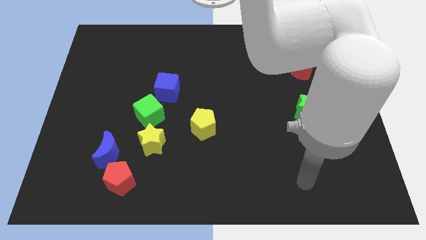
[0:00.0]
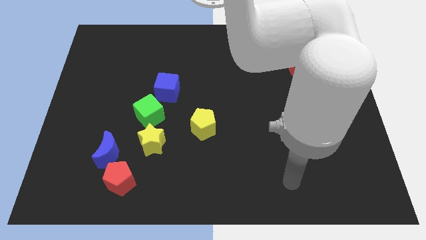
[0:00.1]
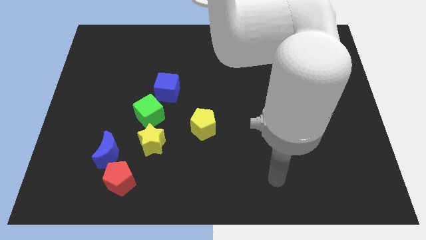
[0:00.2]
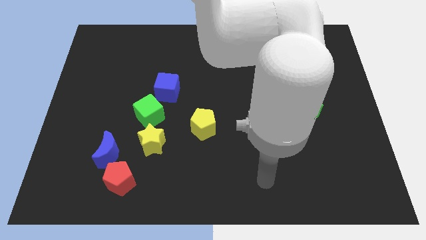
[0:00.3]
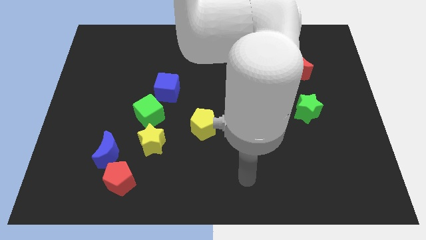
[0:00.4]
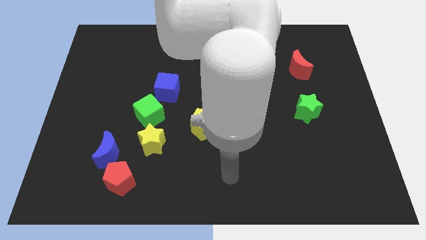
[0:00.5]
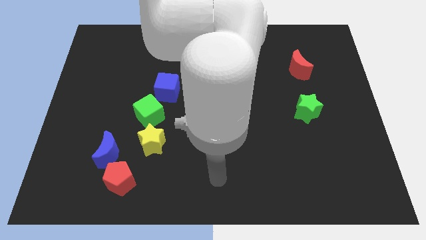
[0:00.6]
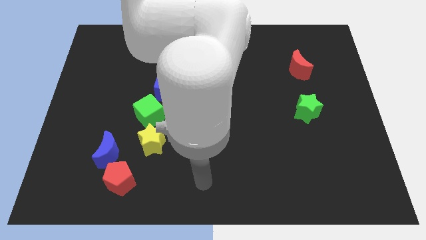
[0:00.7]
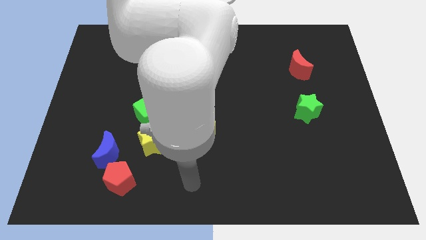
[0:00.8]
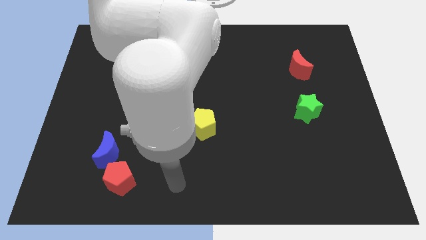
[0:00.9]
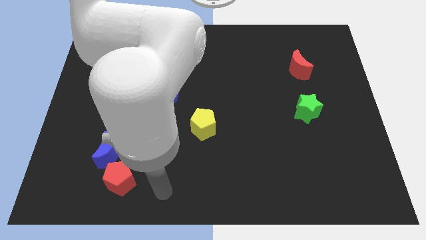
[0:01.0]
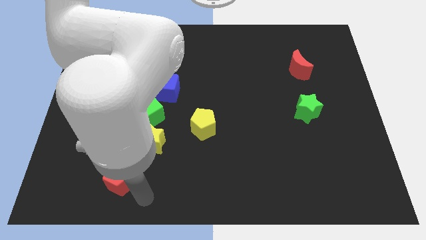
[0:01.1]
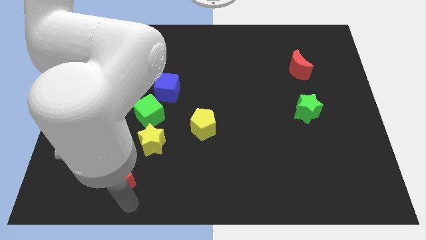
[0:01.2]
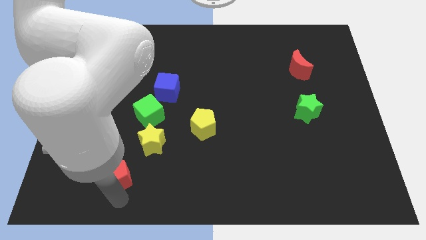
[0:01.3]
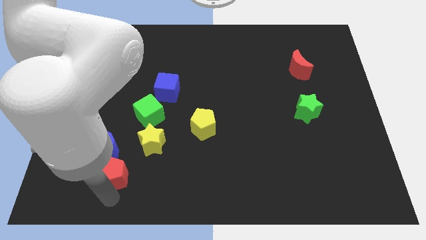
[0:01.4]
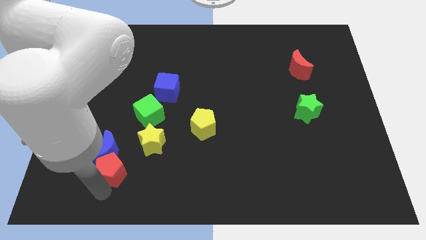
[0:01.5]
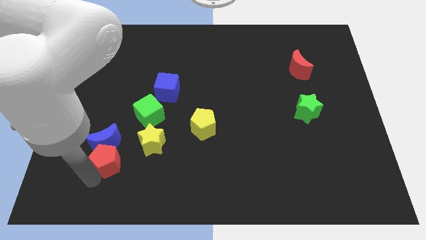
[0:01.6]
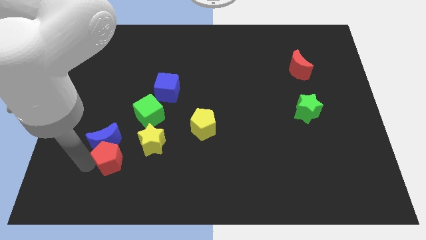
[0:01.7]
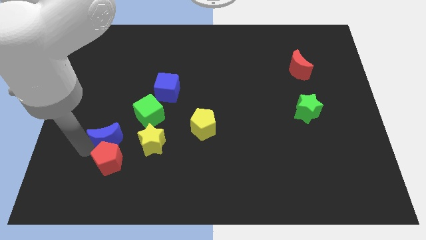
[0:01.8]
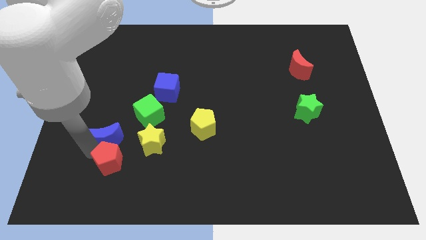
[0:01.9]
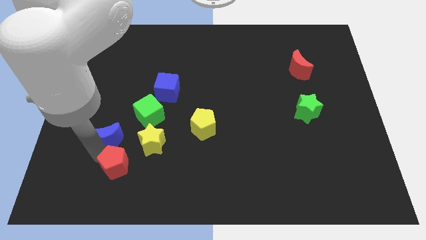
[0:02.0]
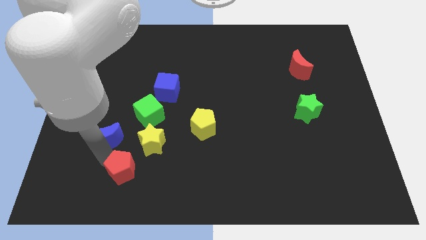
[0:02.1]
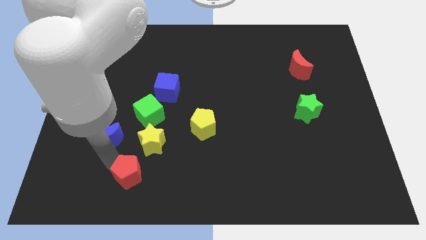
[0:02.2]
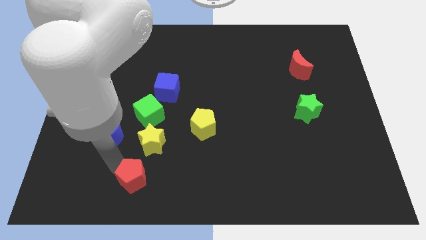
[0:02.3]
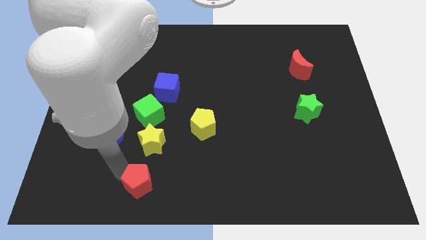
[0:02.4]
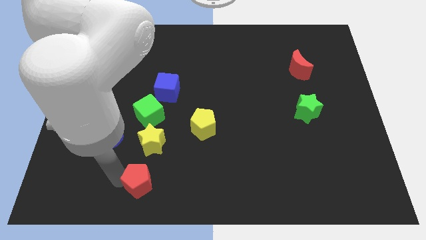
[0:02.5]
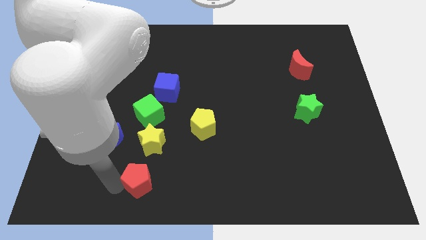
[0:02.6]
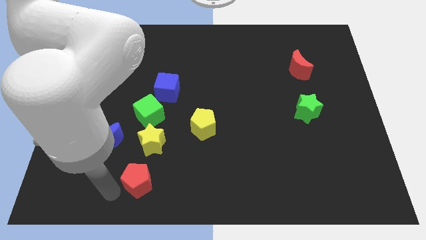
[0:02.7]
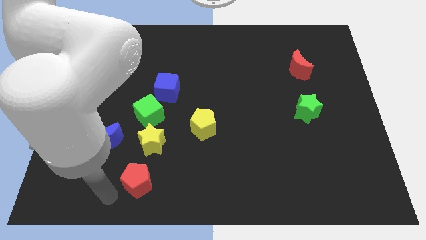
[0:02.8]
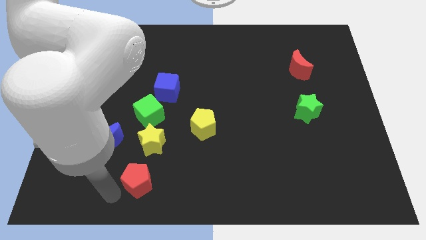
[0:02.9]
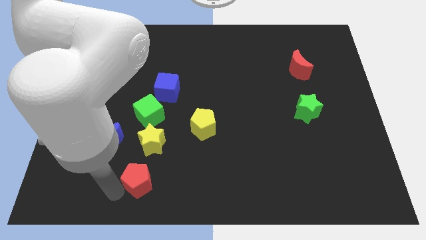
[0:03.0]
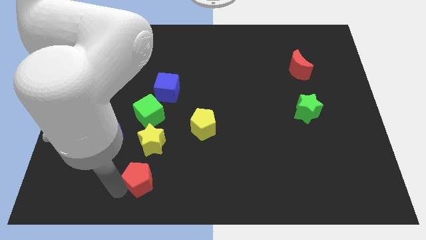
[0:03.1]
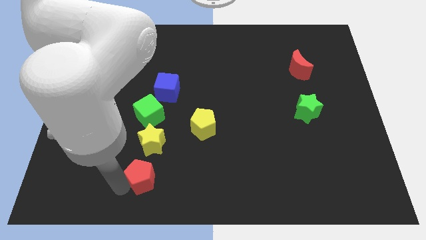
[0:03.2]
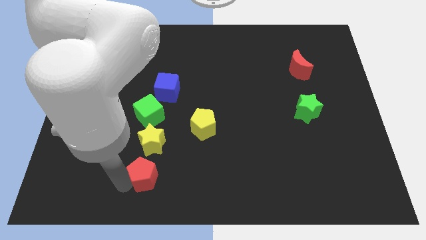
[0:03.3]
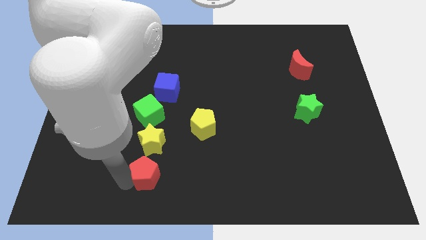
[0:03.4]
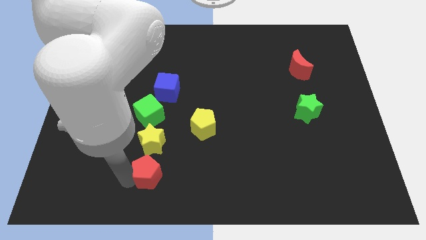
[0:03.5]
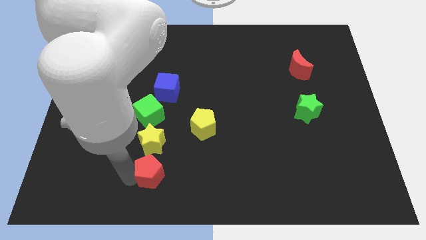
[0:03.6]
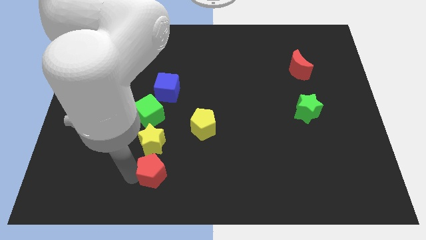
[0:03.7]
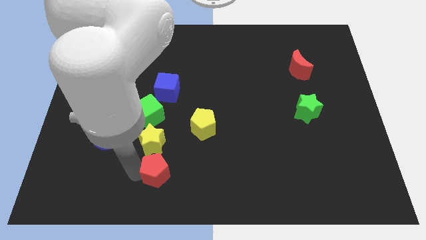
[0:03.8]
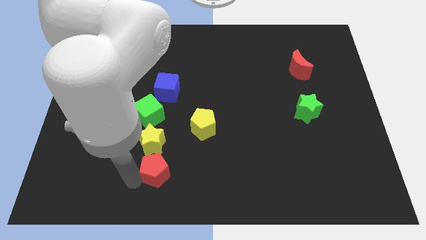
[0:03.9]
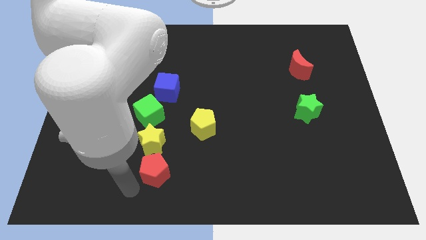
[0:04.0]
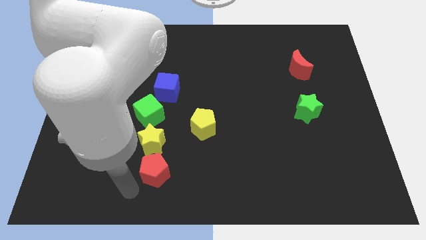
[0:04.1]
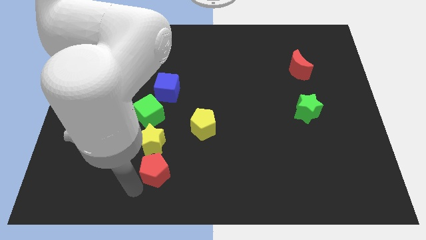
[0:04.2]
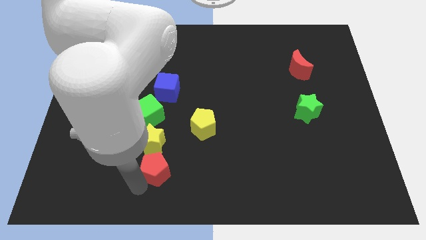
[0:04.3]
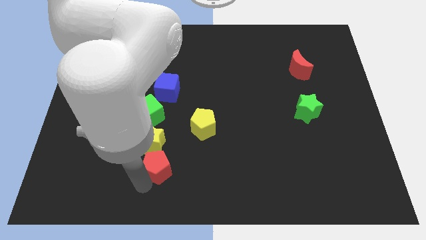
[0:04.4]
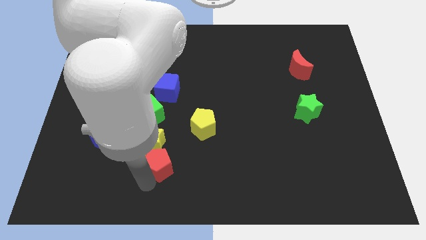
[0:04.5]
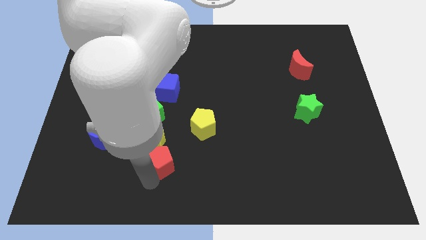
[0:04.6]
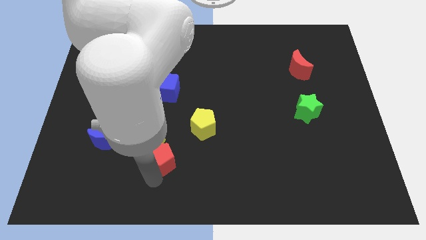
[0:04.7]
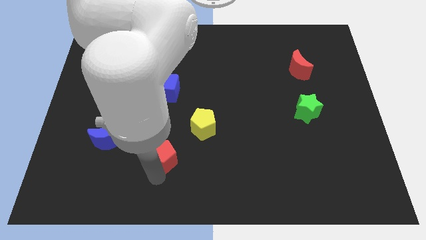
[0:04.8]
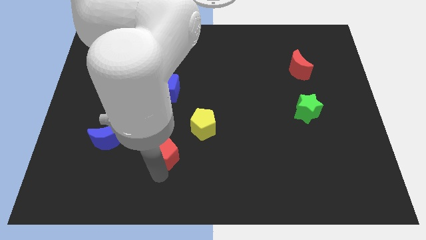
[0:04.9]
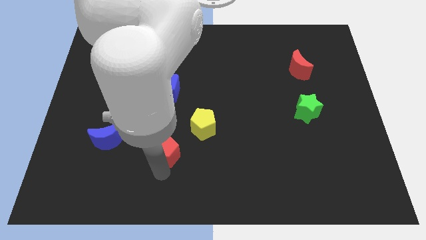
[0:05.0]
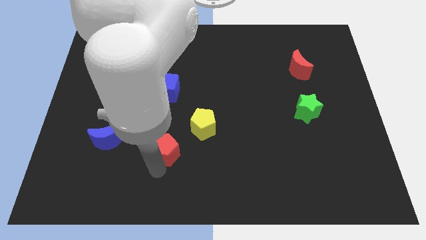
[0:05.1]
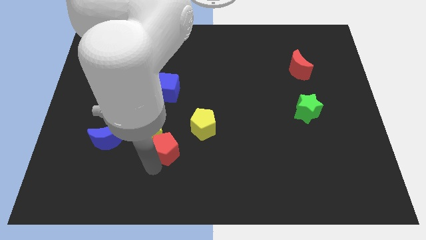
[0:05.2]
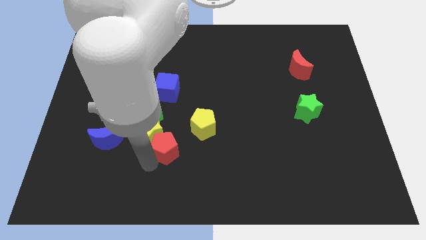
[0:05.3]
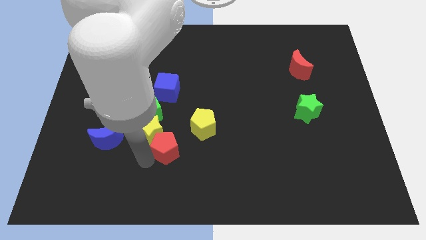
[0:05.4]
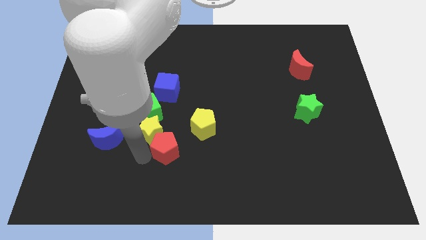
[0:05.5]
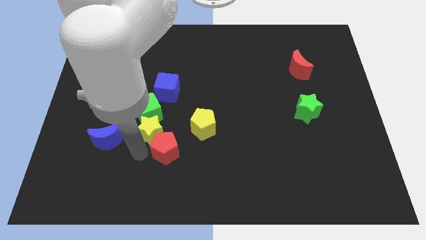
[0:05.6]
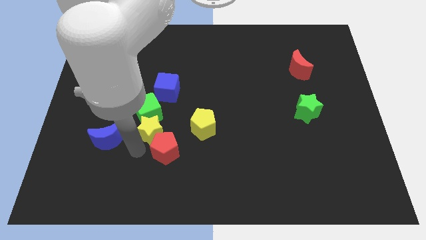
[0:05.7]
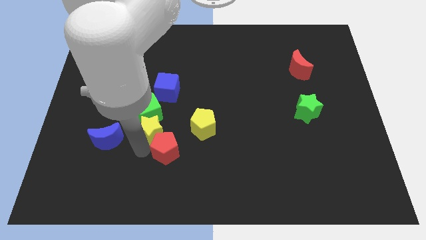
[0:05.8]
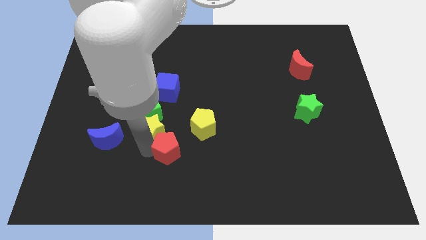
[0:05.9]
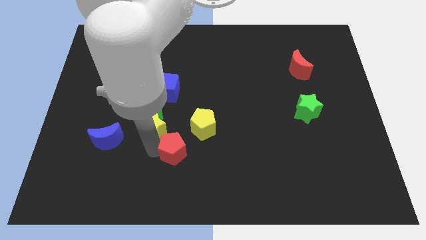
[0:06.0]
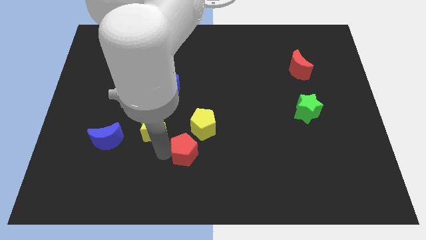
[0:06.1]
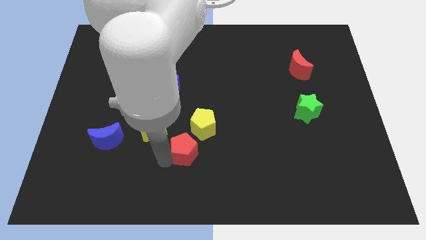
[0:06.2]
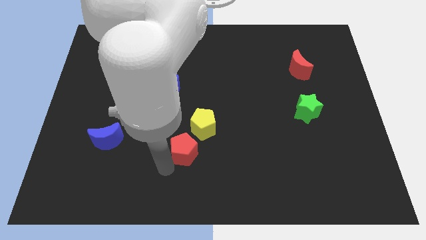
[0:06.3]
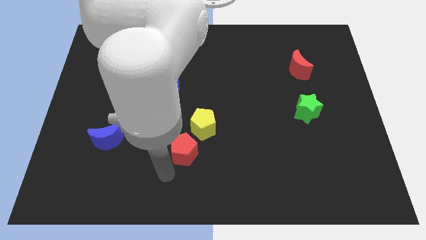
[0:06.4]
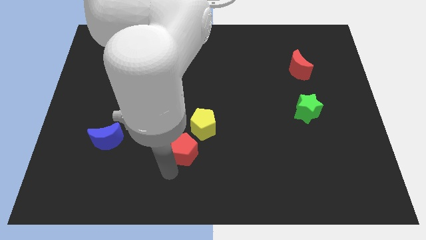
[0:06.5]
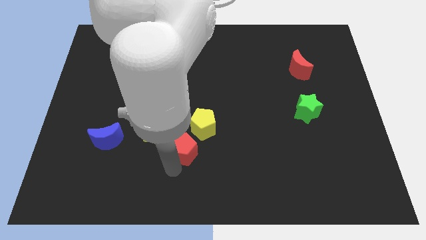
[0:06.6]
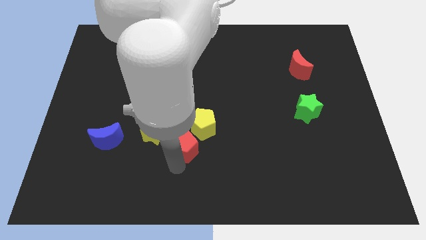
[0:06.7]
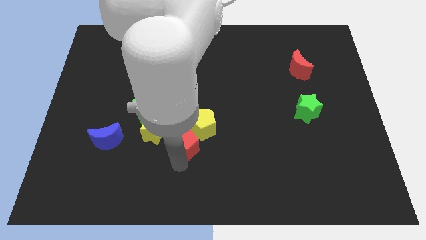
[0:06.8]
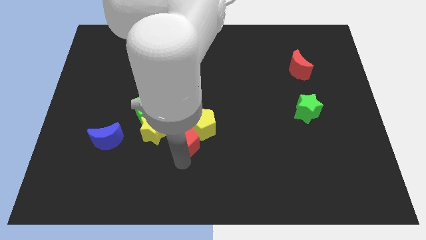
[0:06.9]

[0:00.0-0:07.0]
move the red pentagon to the yellow pentagon
